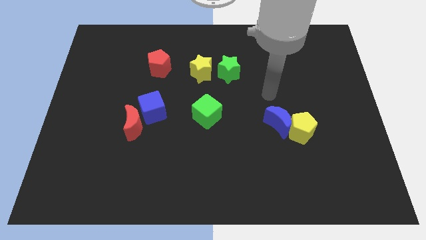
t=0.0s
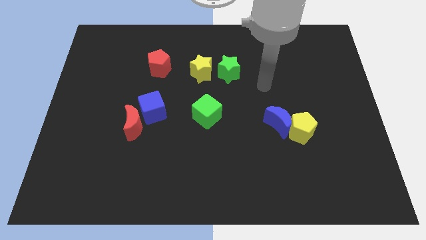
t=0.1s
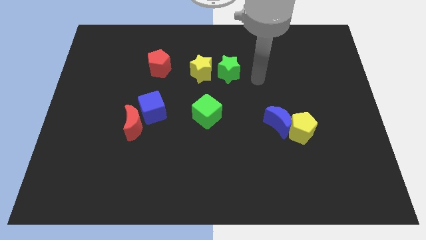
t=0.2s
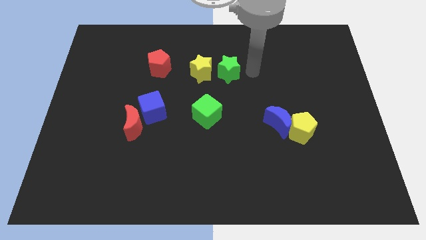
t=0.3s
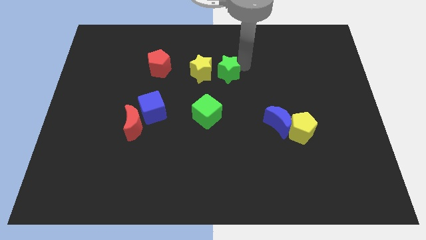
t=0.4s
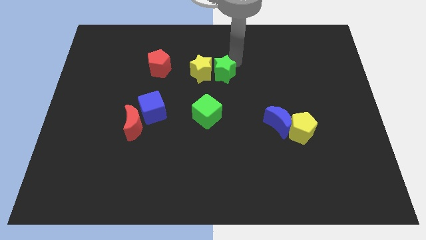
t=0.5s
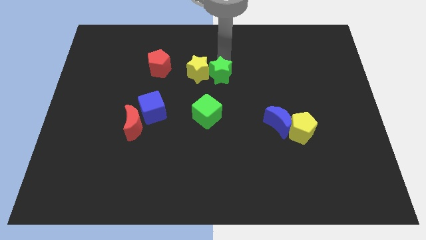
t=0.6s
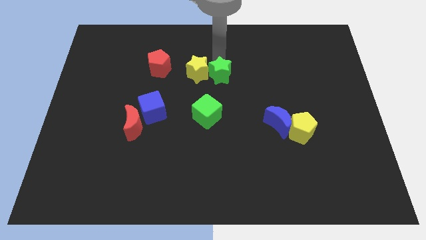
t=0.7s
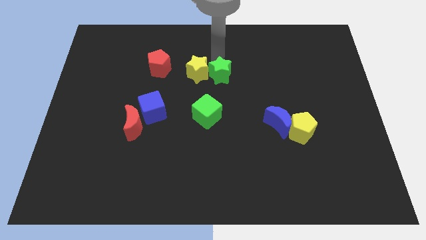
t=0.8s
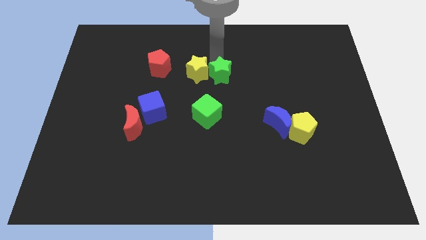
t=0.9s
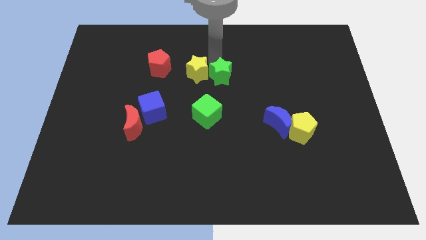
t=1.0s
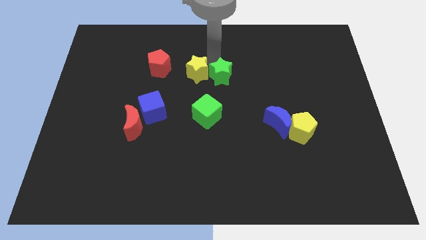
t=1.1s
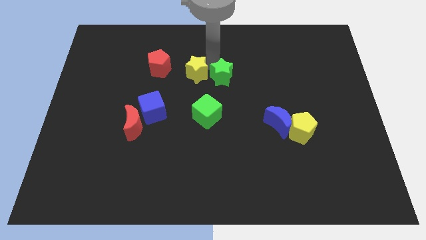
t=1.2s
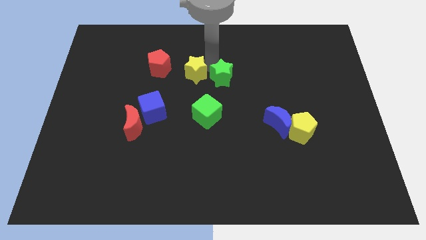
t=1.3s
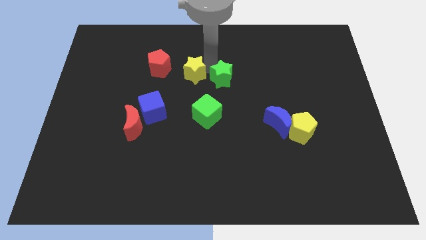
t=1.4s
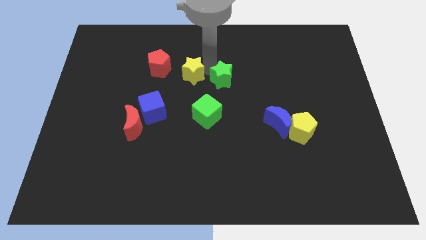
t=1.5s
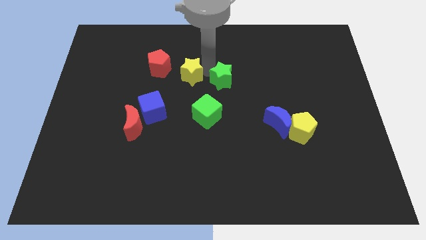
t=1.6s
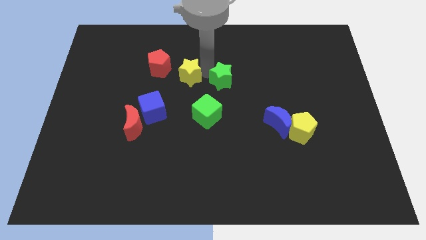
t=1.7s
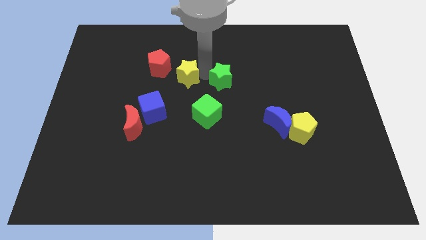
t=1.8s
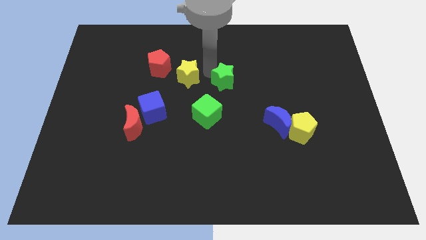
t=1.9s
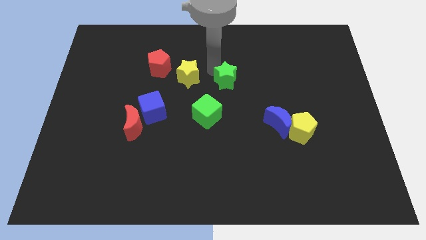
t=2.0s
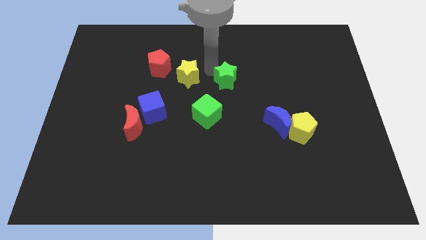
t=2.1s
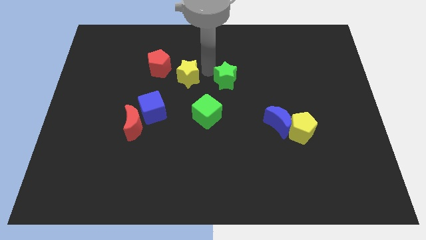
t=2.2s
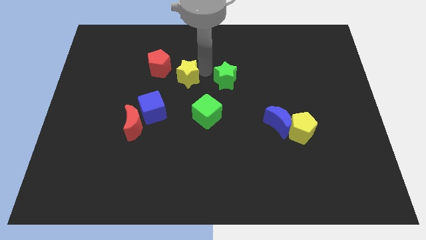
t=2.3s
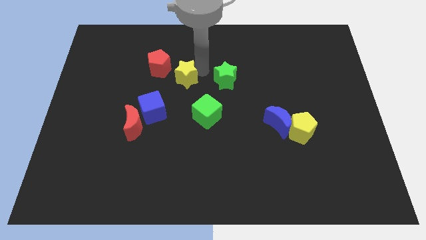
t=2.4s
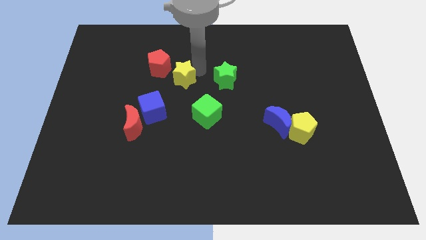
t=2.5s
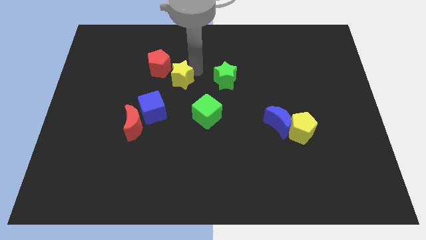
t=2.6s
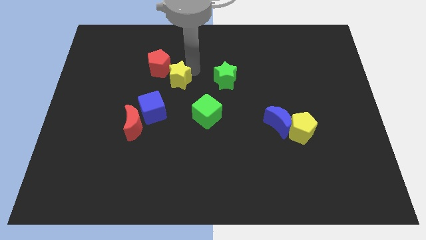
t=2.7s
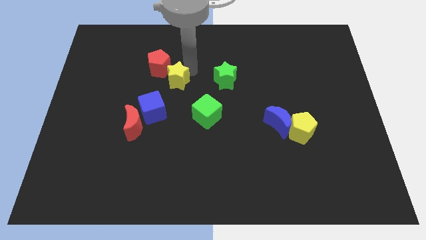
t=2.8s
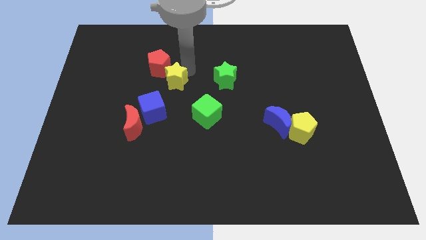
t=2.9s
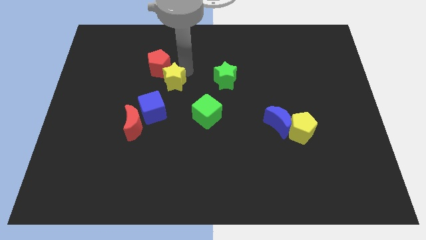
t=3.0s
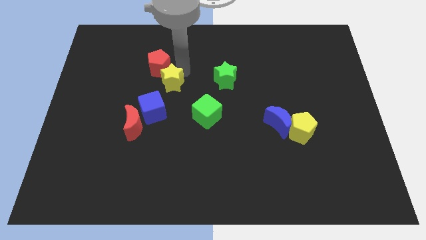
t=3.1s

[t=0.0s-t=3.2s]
slide the yellow star left a bit

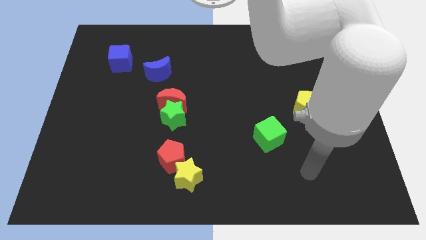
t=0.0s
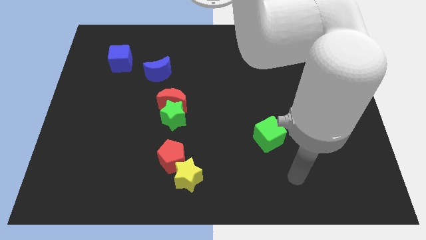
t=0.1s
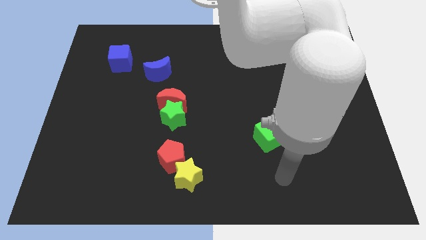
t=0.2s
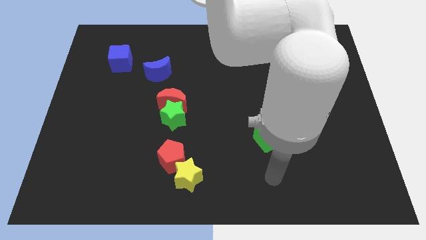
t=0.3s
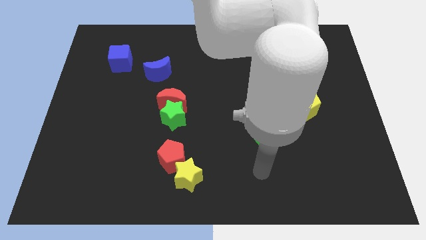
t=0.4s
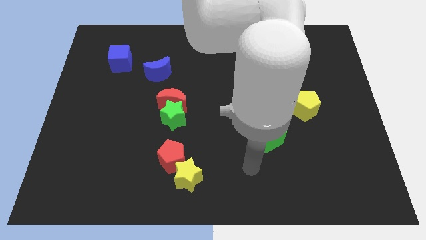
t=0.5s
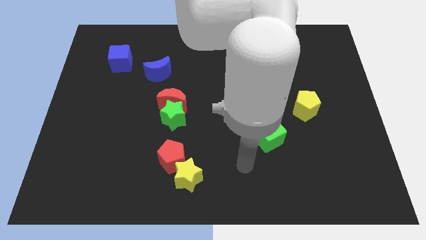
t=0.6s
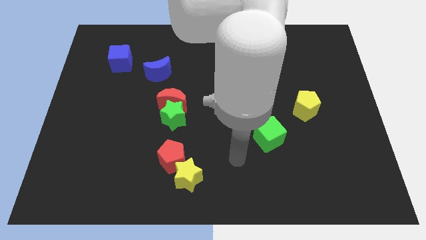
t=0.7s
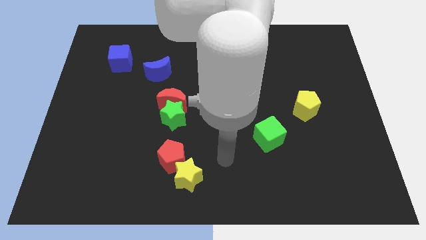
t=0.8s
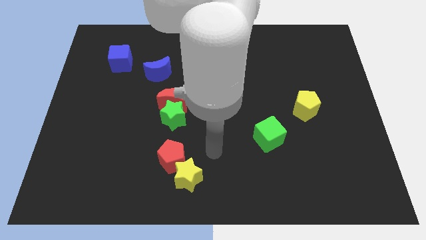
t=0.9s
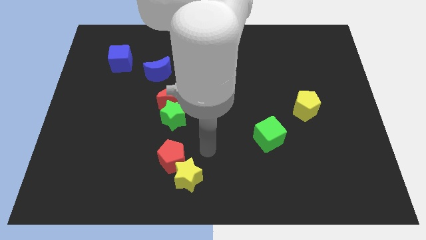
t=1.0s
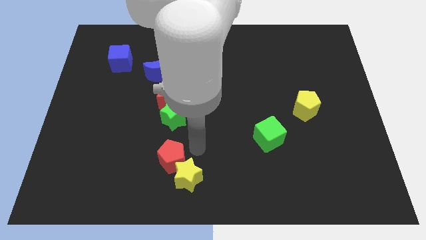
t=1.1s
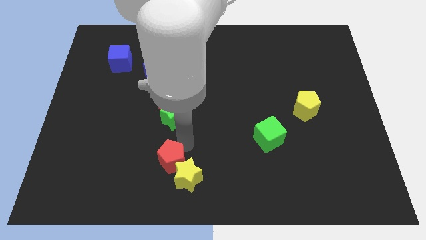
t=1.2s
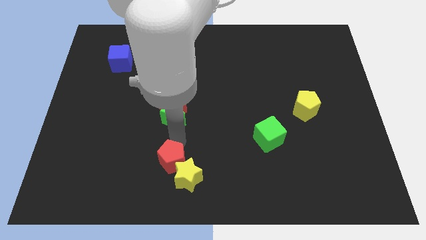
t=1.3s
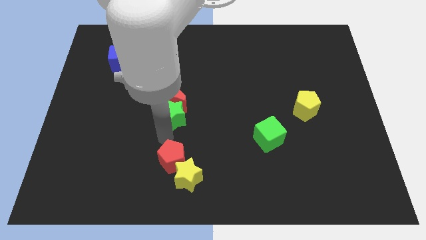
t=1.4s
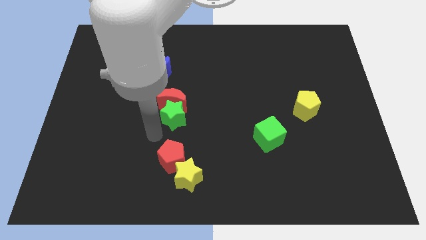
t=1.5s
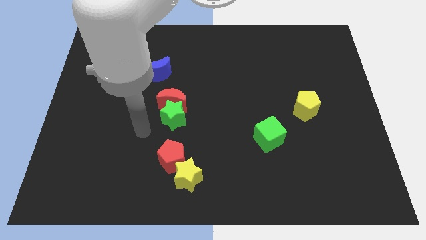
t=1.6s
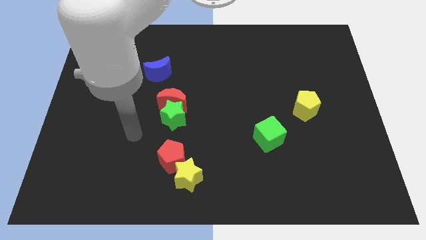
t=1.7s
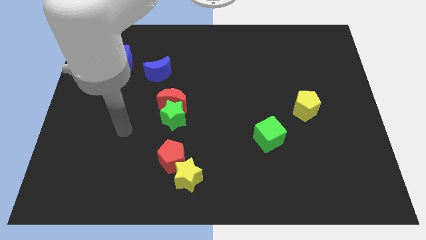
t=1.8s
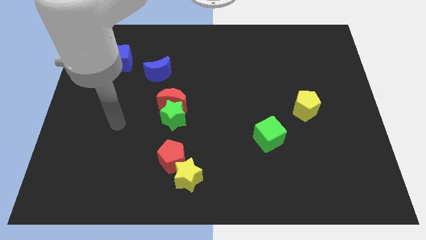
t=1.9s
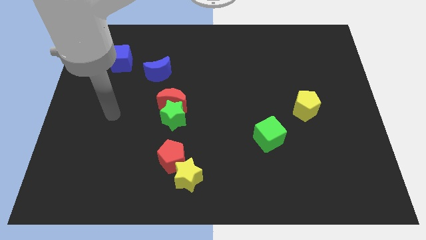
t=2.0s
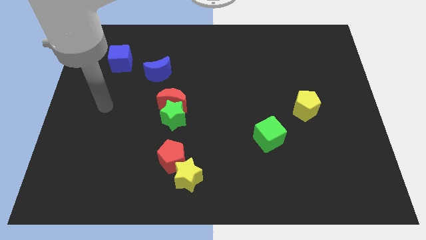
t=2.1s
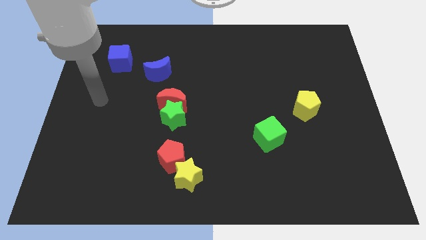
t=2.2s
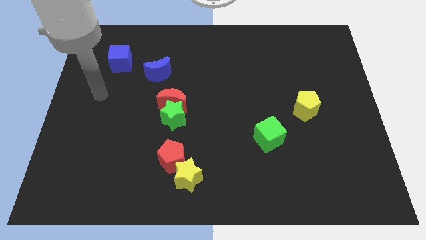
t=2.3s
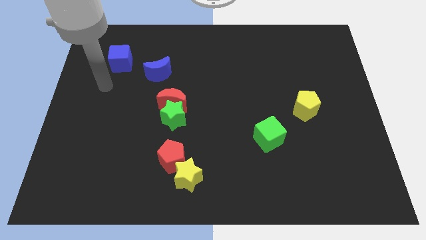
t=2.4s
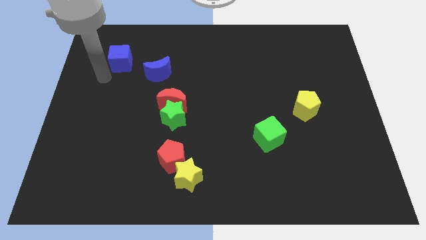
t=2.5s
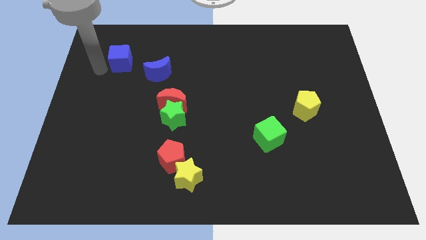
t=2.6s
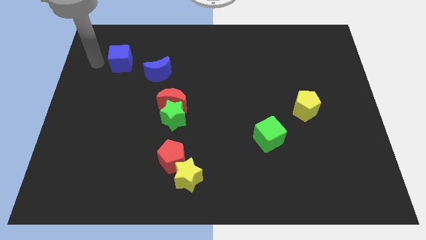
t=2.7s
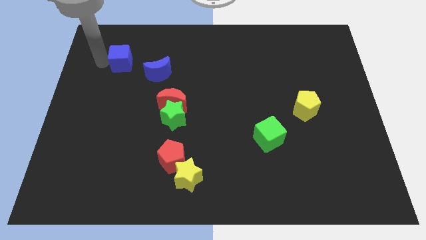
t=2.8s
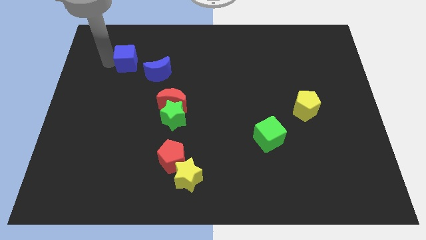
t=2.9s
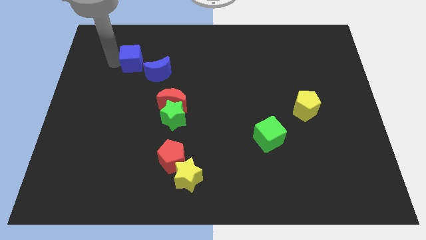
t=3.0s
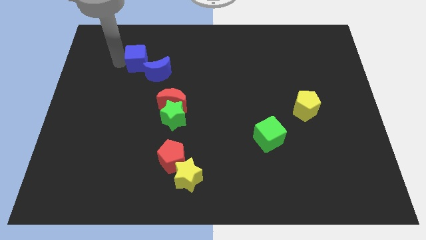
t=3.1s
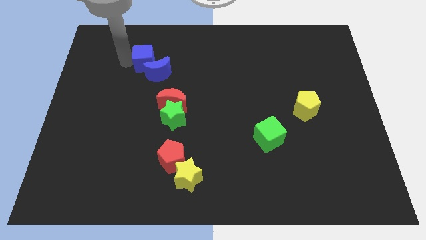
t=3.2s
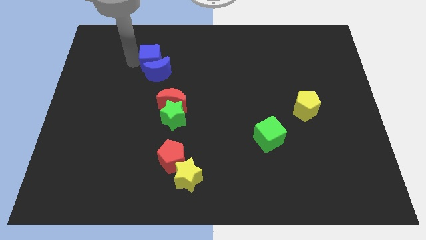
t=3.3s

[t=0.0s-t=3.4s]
push the blue cube right slightly

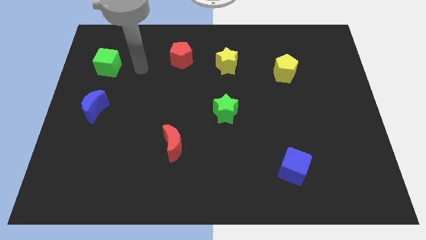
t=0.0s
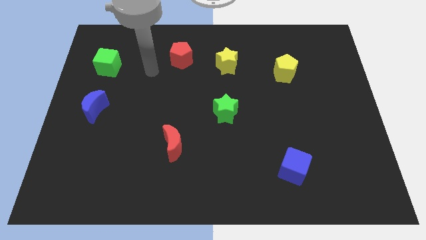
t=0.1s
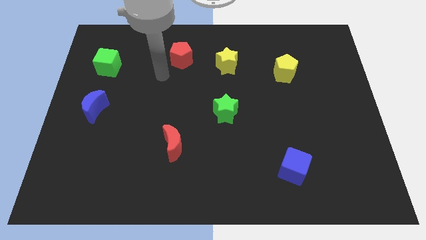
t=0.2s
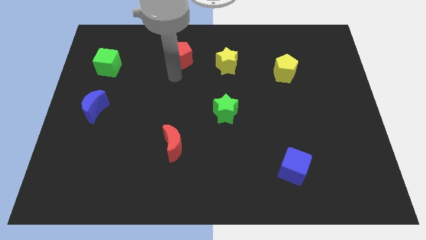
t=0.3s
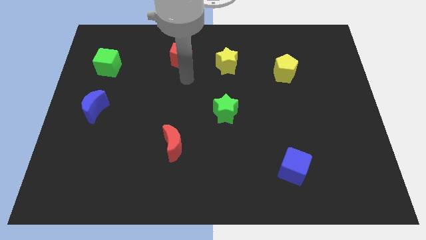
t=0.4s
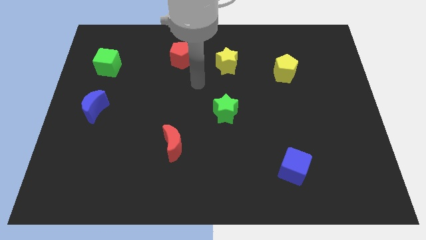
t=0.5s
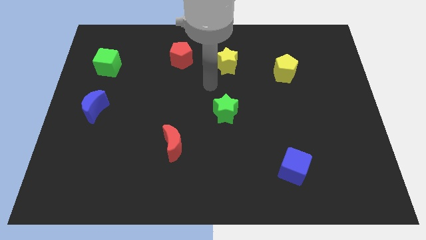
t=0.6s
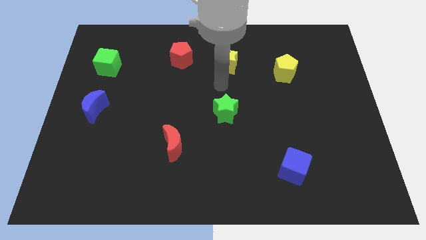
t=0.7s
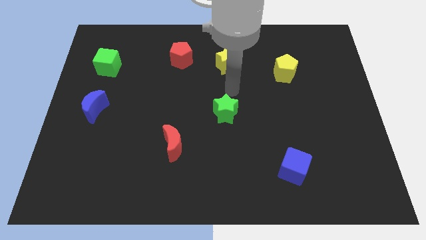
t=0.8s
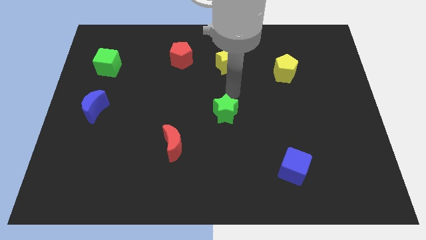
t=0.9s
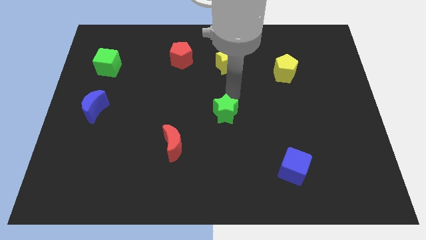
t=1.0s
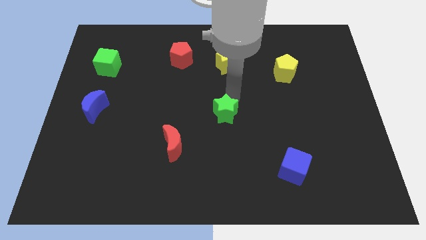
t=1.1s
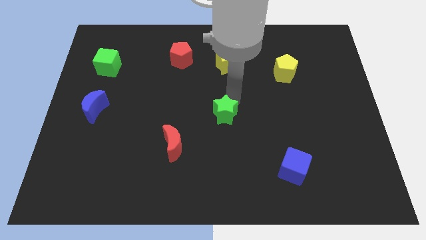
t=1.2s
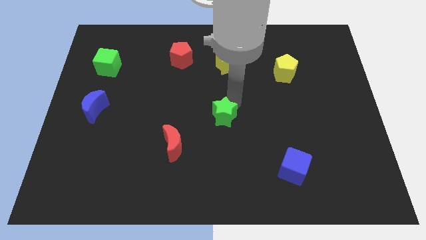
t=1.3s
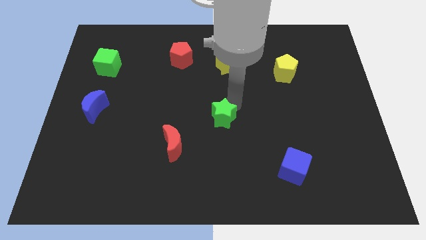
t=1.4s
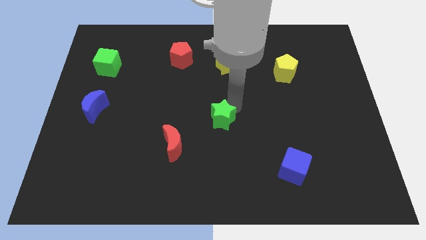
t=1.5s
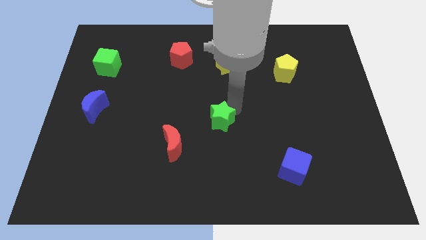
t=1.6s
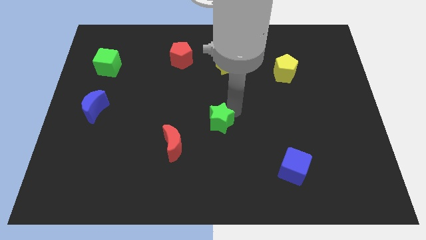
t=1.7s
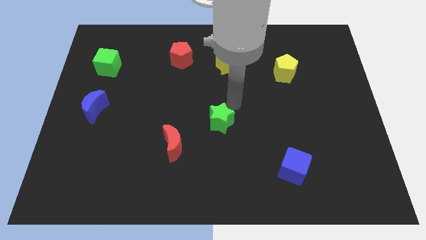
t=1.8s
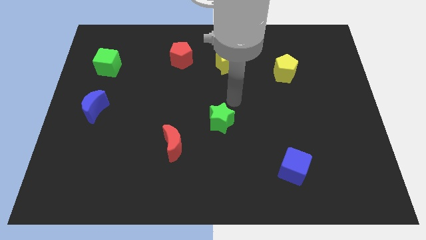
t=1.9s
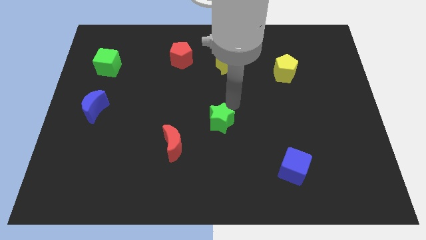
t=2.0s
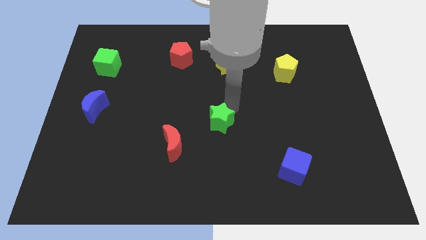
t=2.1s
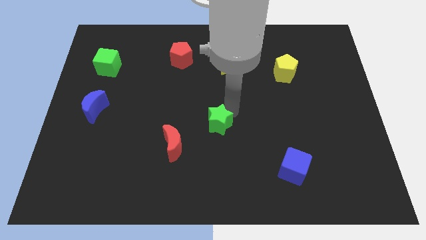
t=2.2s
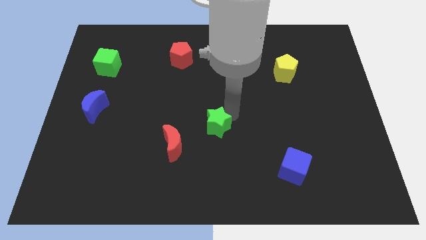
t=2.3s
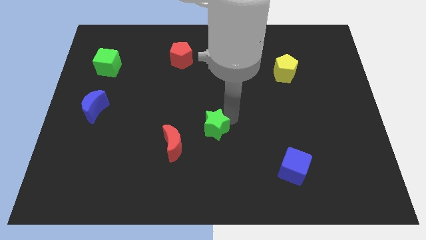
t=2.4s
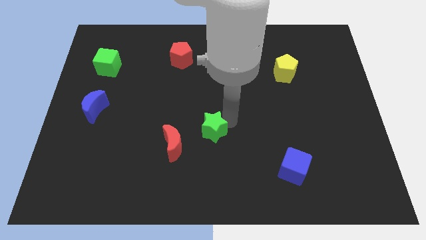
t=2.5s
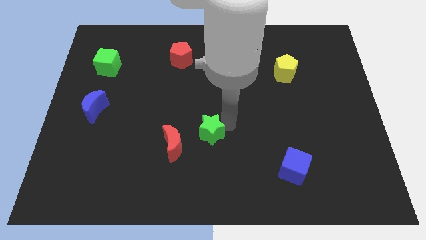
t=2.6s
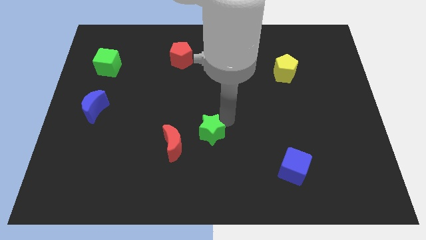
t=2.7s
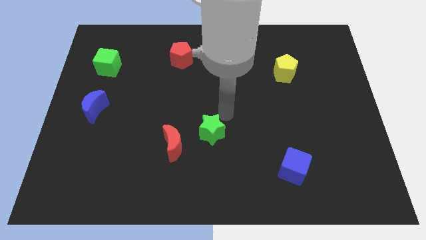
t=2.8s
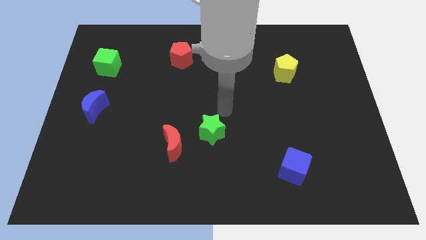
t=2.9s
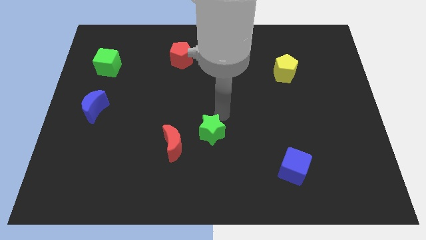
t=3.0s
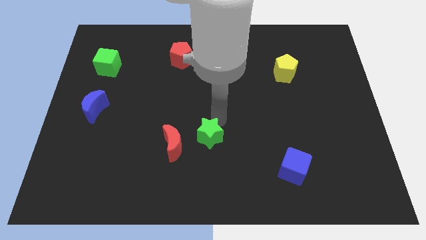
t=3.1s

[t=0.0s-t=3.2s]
push the green star diagonally down and to the left somewhat
